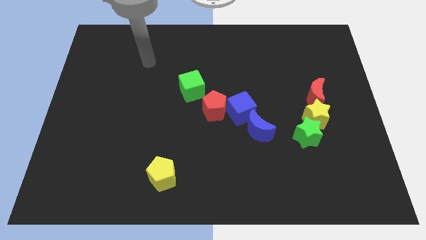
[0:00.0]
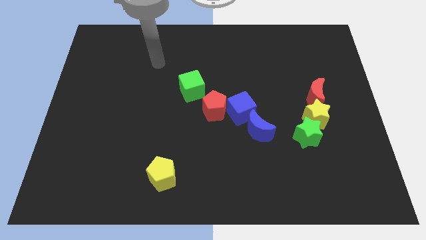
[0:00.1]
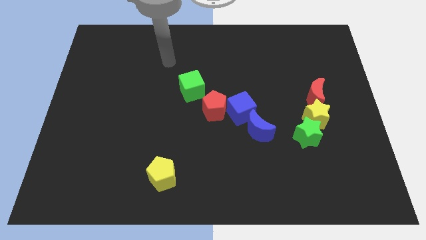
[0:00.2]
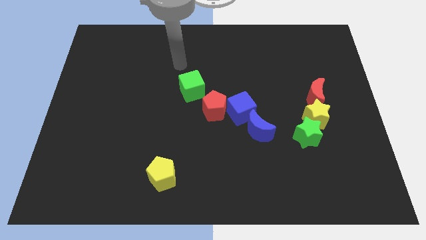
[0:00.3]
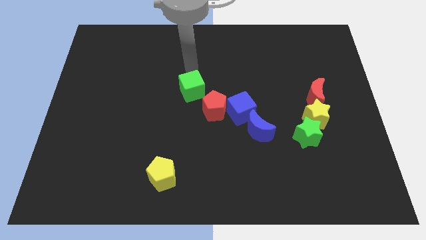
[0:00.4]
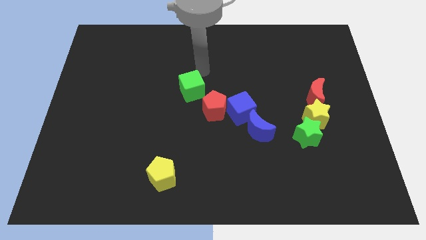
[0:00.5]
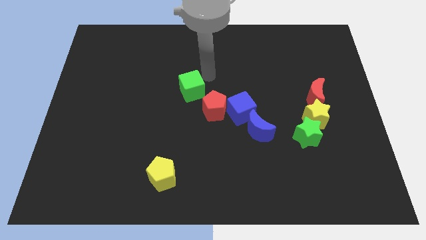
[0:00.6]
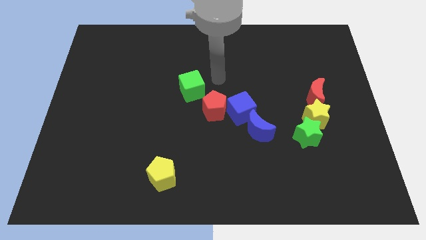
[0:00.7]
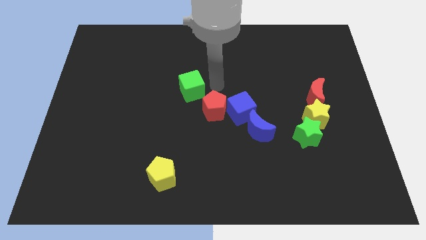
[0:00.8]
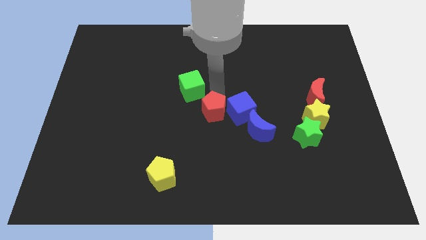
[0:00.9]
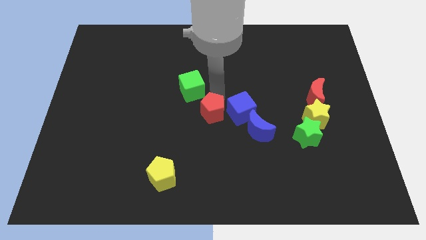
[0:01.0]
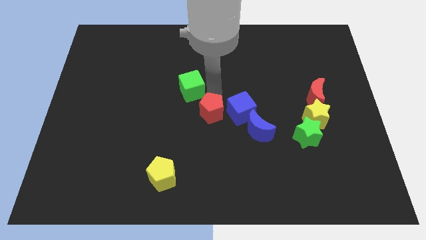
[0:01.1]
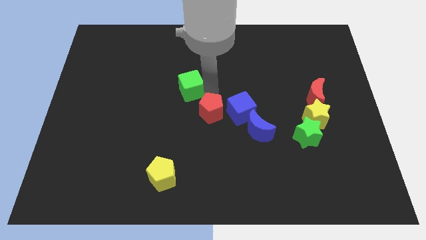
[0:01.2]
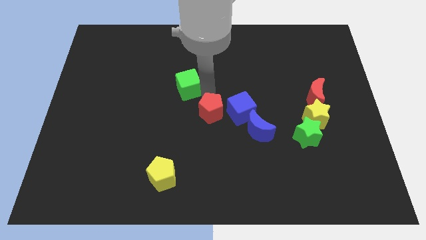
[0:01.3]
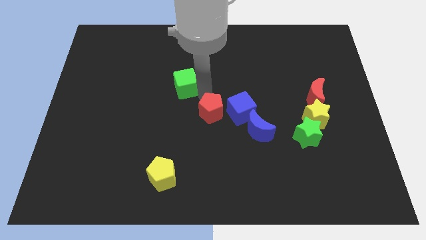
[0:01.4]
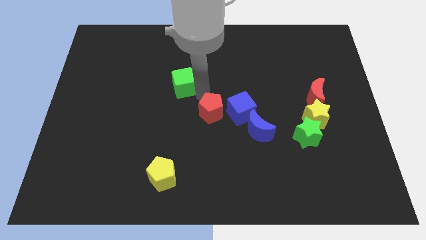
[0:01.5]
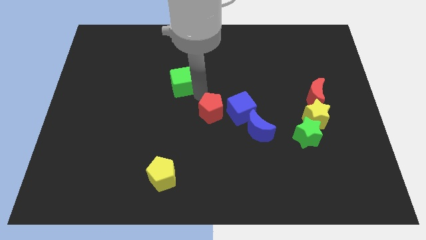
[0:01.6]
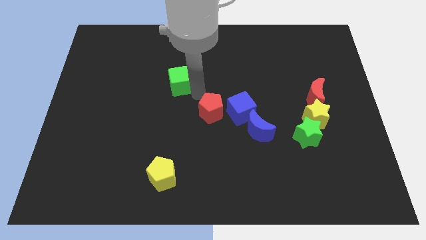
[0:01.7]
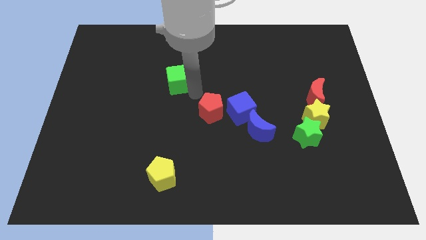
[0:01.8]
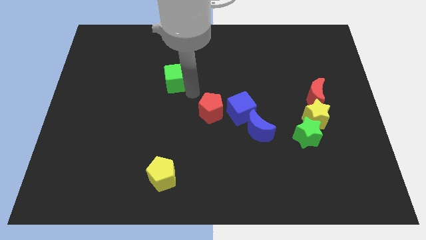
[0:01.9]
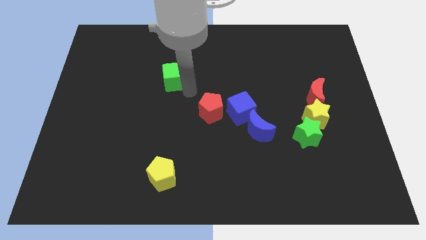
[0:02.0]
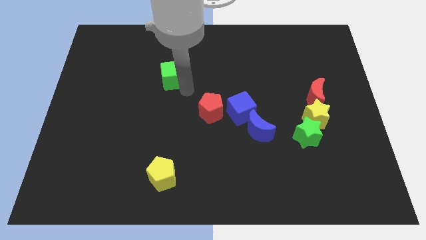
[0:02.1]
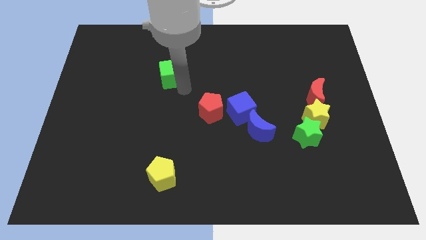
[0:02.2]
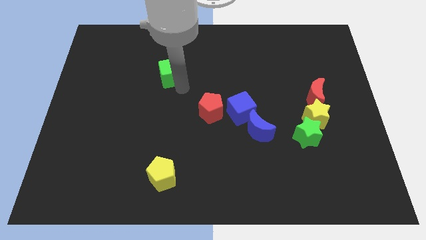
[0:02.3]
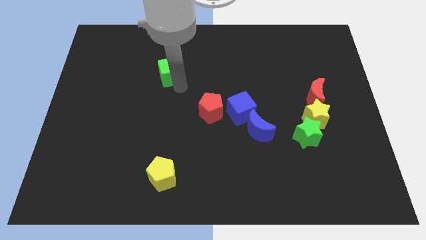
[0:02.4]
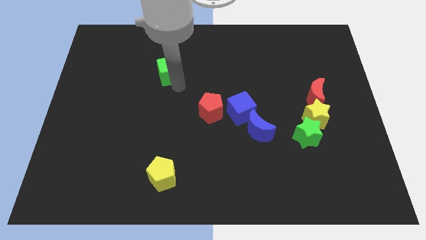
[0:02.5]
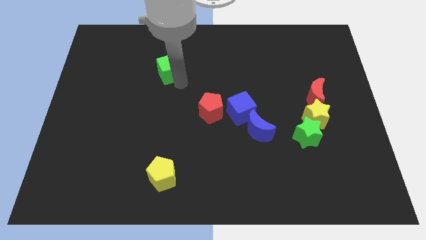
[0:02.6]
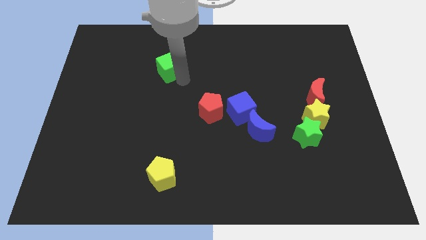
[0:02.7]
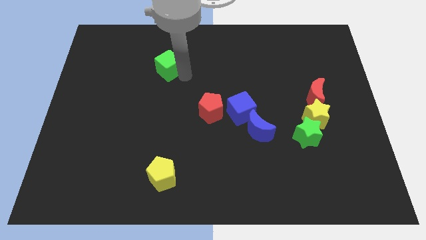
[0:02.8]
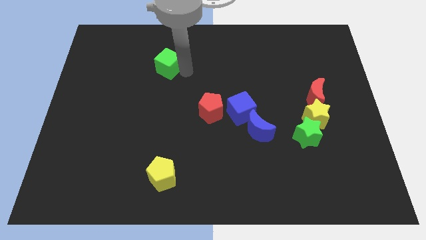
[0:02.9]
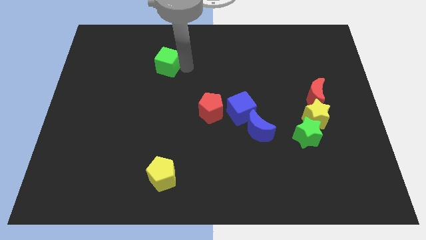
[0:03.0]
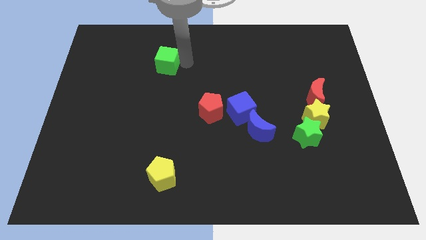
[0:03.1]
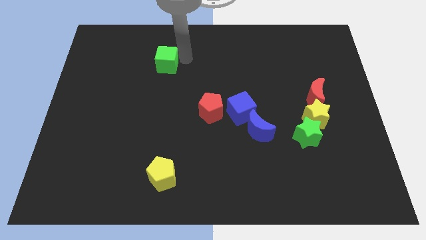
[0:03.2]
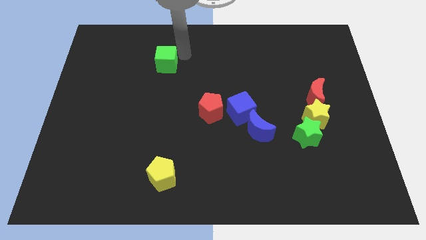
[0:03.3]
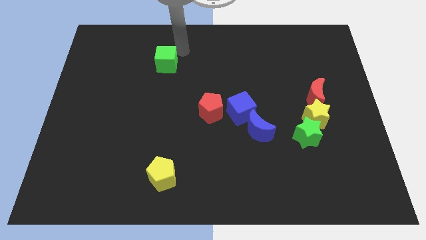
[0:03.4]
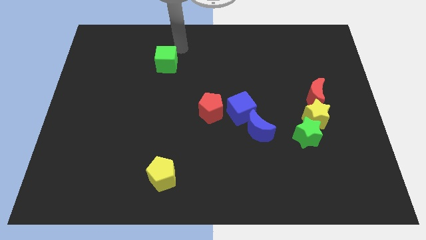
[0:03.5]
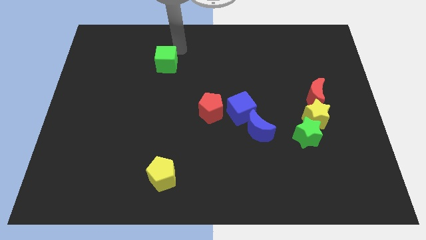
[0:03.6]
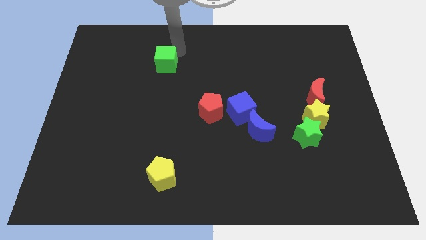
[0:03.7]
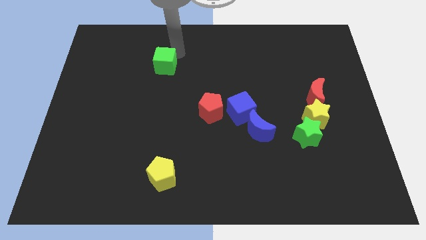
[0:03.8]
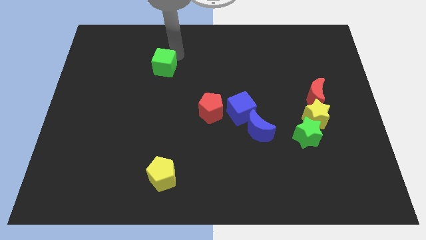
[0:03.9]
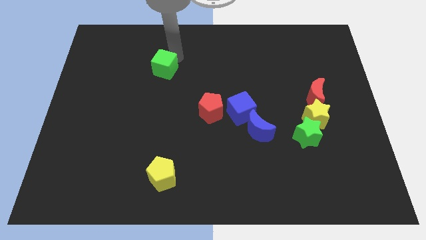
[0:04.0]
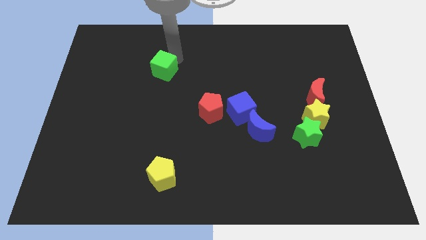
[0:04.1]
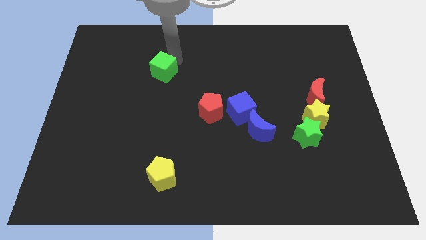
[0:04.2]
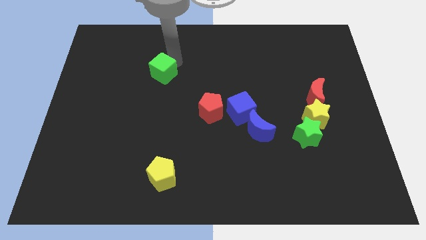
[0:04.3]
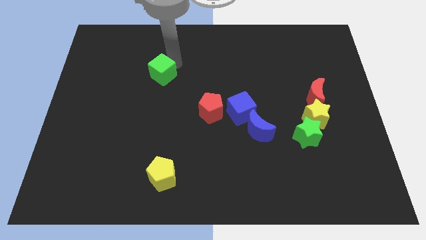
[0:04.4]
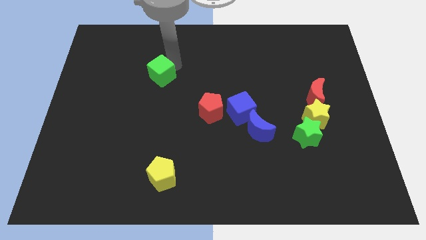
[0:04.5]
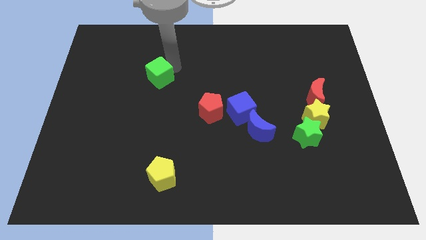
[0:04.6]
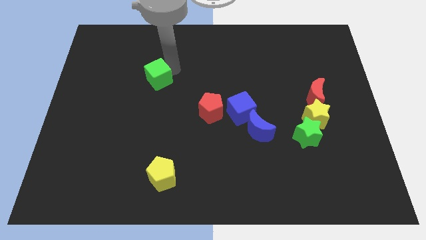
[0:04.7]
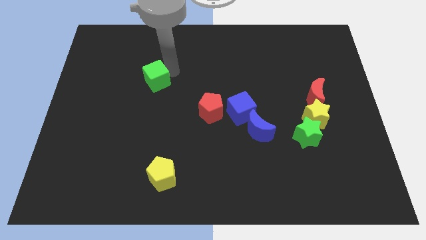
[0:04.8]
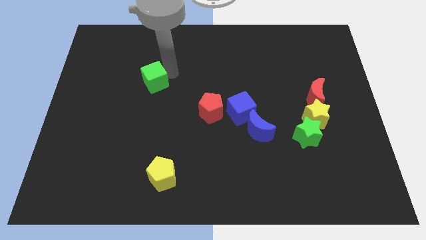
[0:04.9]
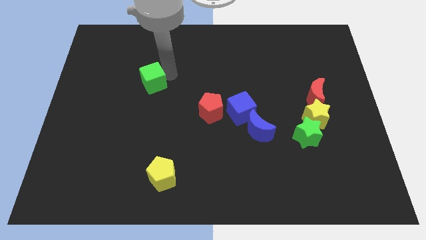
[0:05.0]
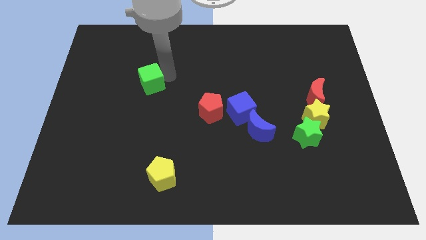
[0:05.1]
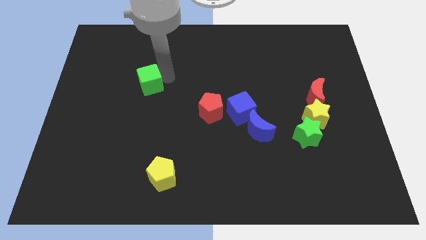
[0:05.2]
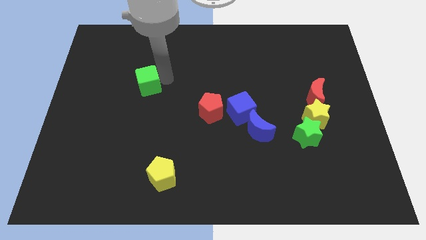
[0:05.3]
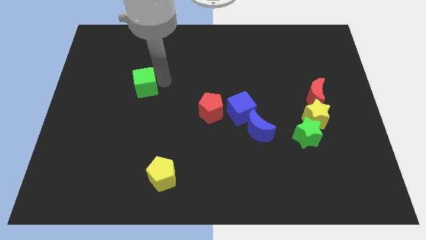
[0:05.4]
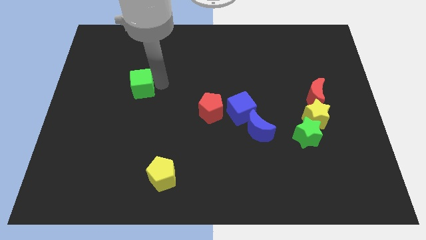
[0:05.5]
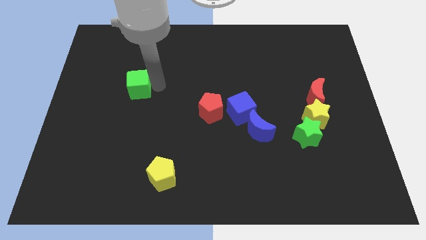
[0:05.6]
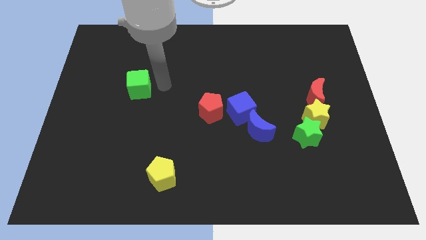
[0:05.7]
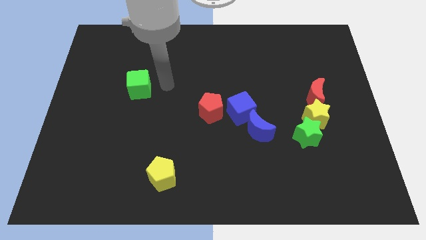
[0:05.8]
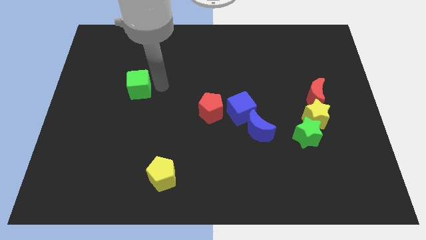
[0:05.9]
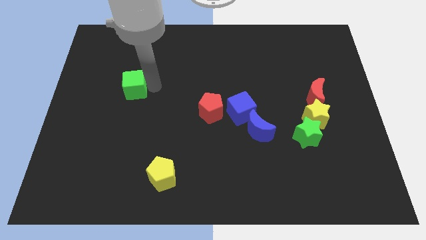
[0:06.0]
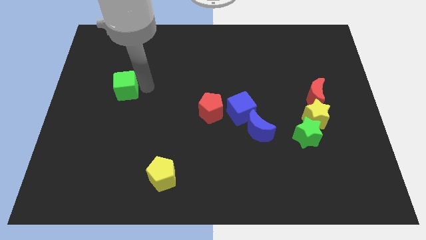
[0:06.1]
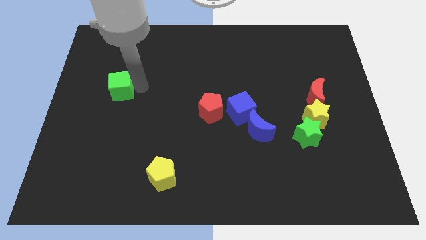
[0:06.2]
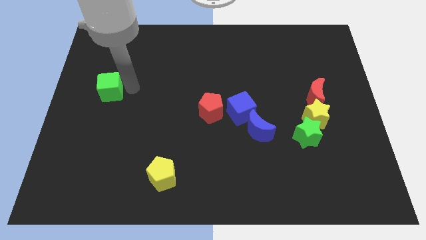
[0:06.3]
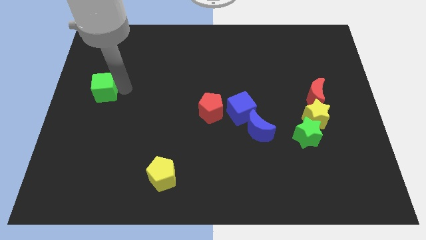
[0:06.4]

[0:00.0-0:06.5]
move the green cube to the left side of the board

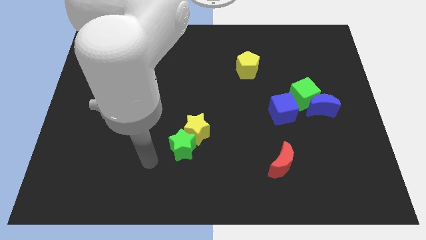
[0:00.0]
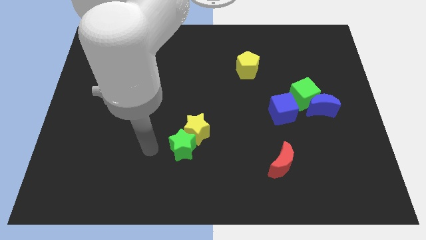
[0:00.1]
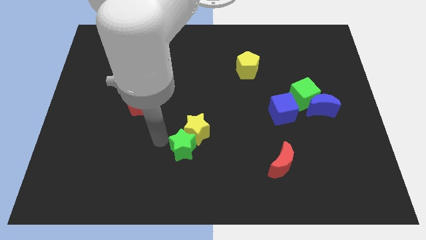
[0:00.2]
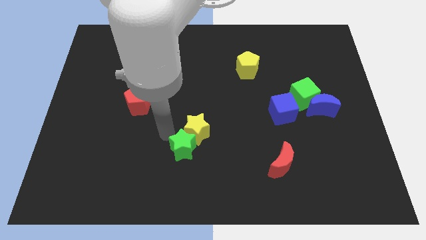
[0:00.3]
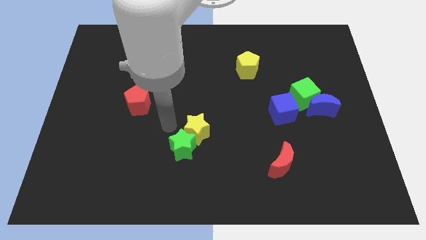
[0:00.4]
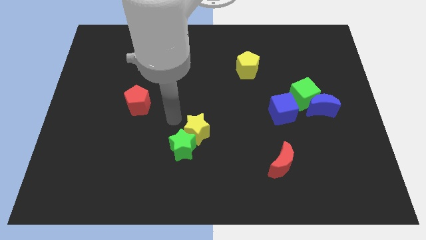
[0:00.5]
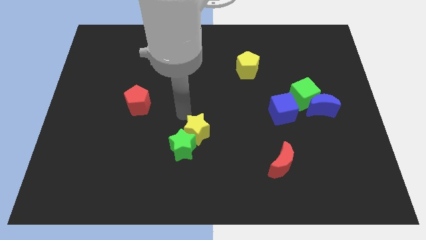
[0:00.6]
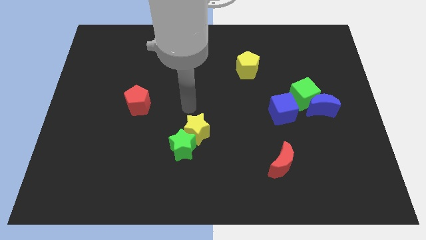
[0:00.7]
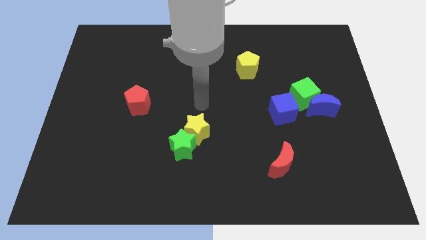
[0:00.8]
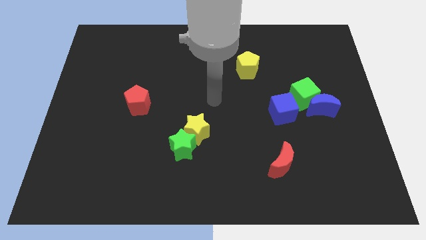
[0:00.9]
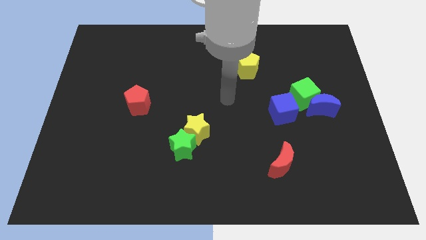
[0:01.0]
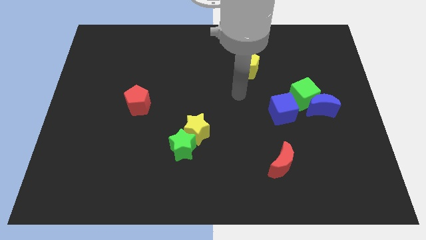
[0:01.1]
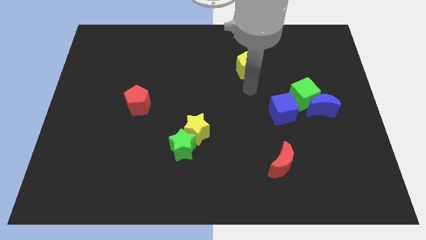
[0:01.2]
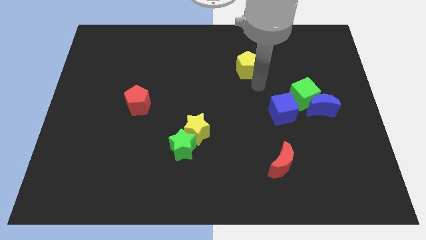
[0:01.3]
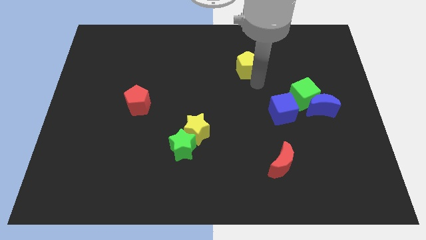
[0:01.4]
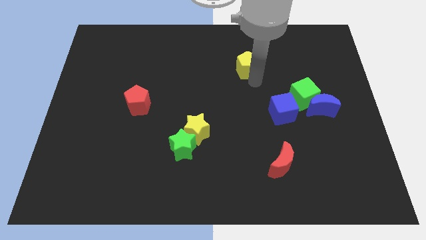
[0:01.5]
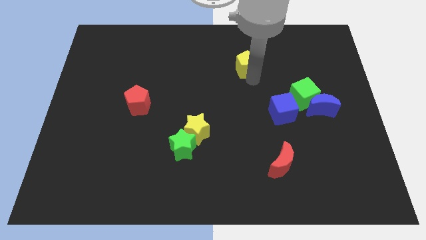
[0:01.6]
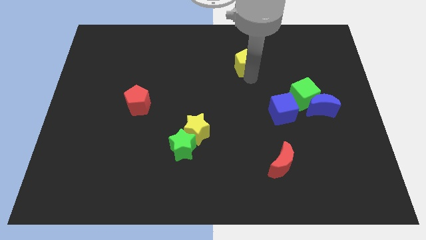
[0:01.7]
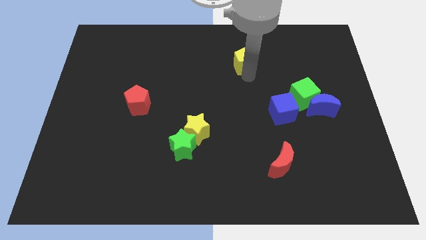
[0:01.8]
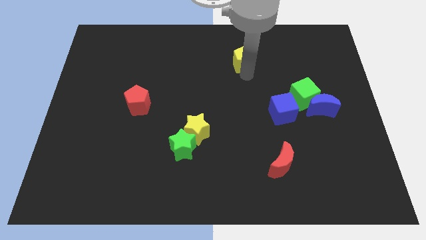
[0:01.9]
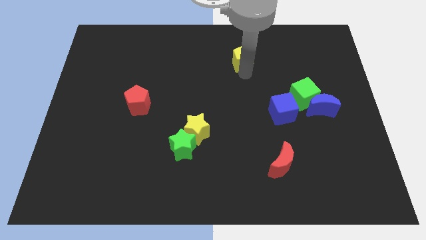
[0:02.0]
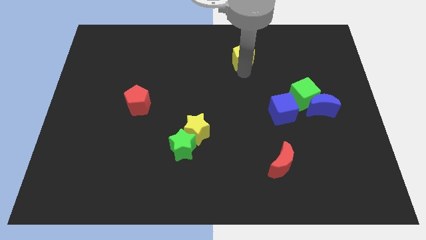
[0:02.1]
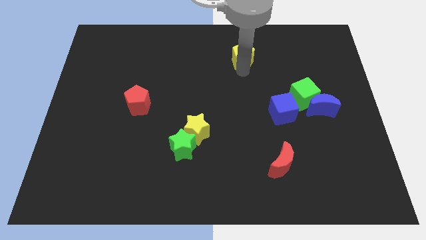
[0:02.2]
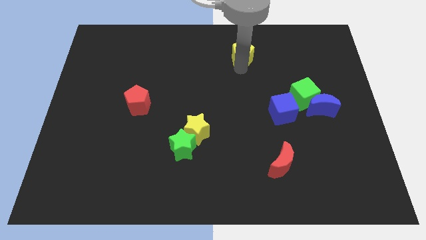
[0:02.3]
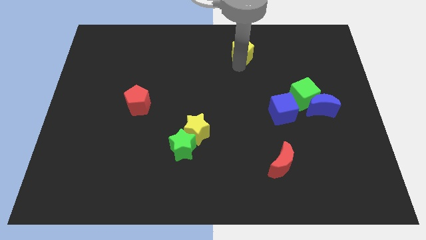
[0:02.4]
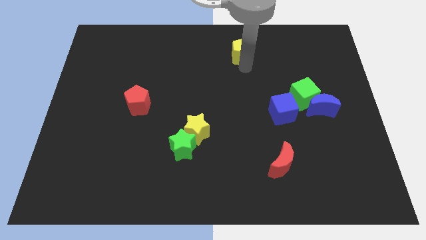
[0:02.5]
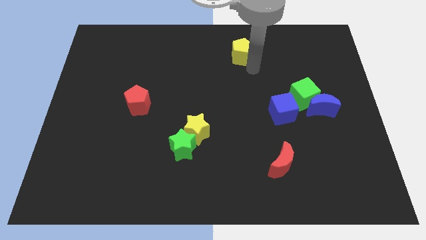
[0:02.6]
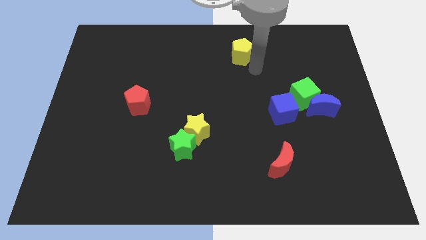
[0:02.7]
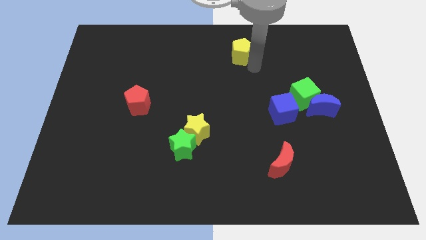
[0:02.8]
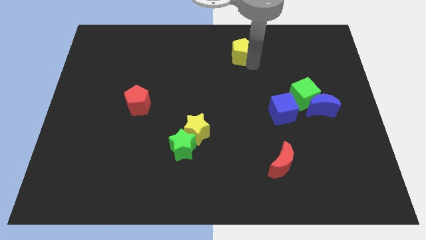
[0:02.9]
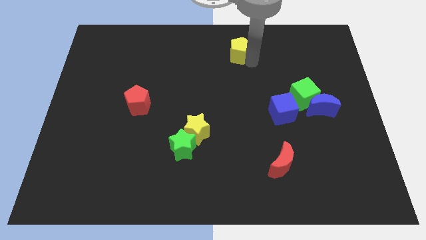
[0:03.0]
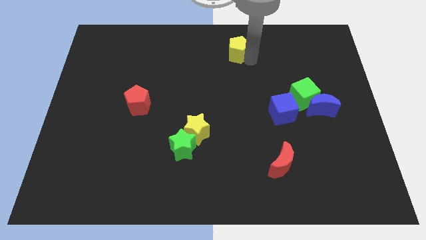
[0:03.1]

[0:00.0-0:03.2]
move the yellow pentagon to the towards your base
